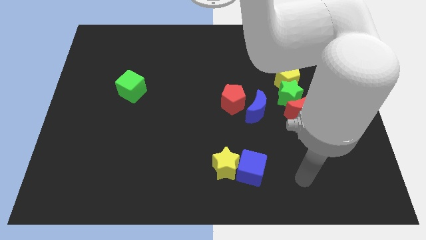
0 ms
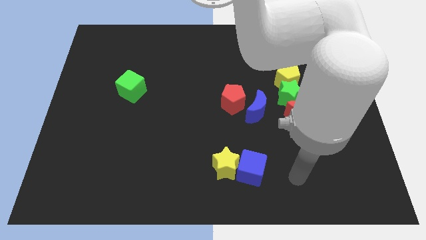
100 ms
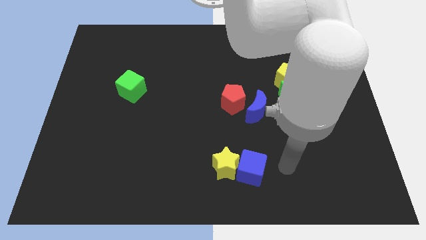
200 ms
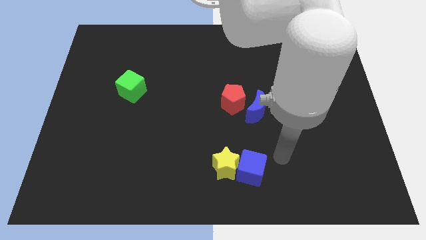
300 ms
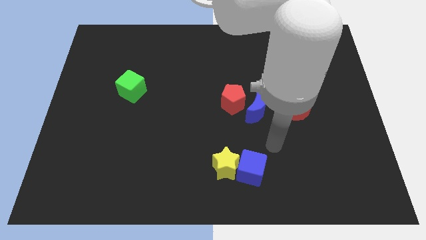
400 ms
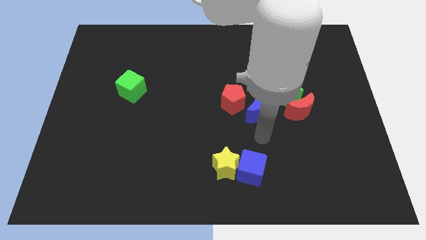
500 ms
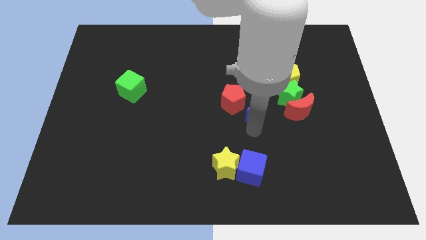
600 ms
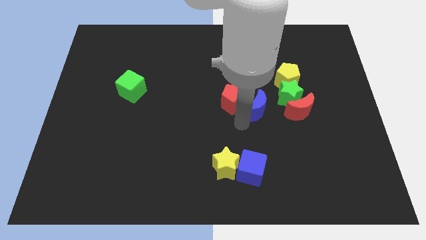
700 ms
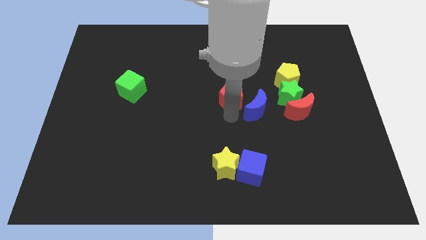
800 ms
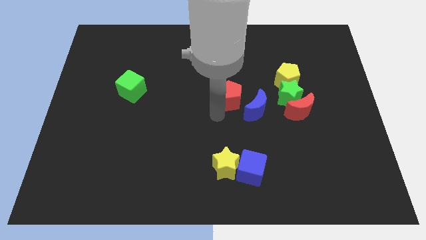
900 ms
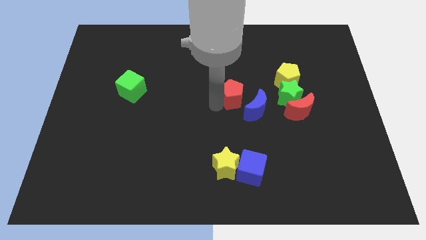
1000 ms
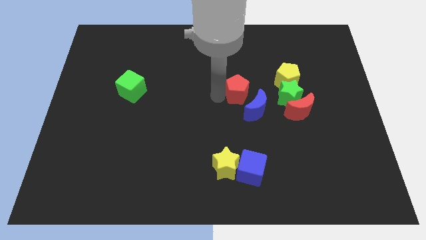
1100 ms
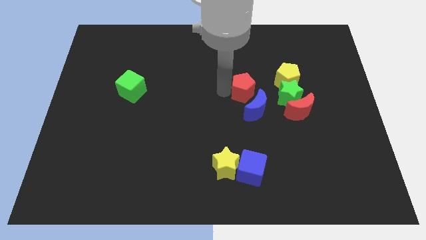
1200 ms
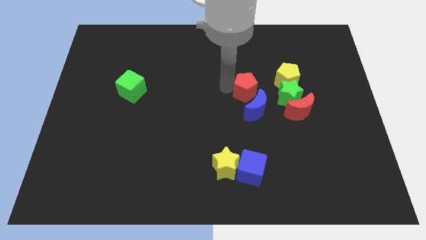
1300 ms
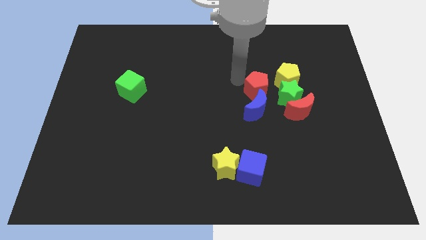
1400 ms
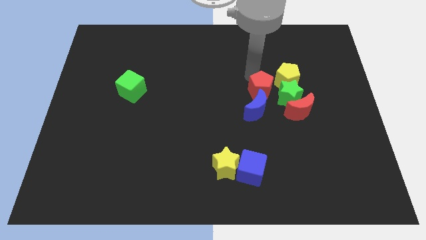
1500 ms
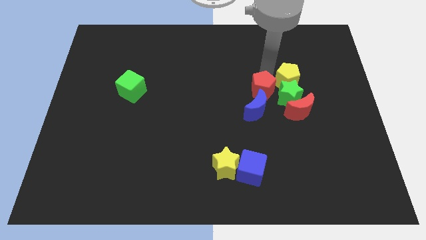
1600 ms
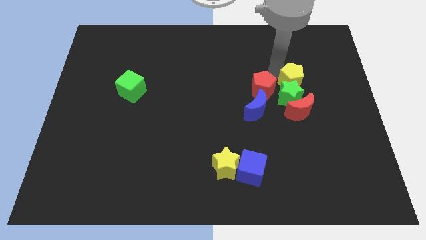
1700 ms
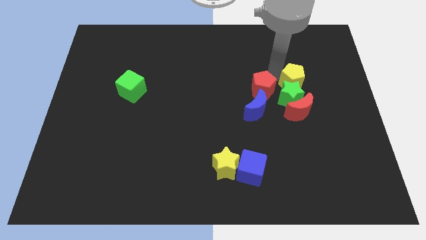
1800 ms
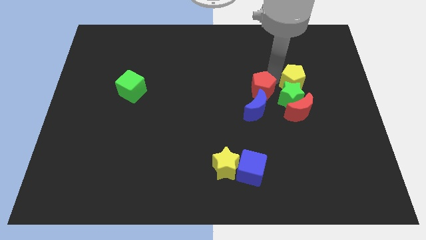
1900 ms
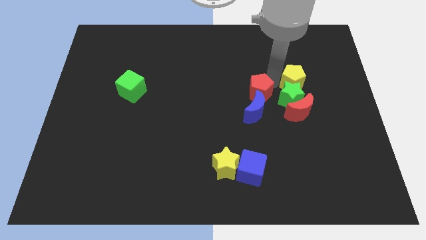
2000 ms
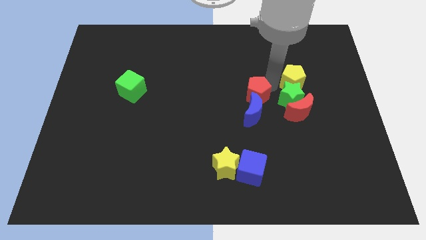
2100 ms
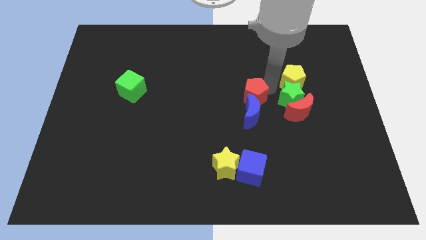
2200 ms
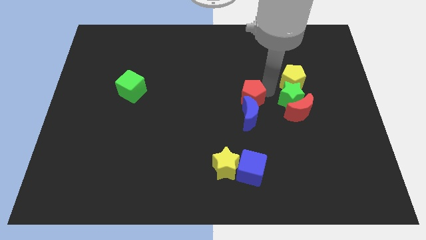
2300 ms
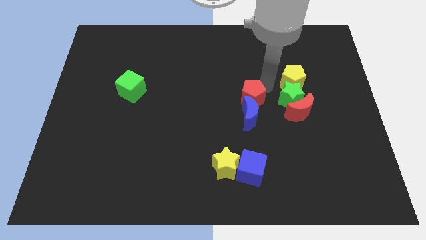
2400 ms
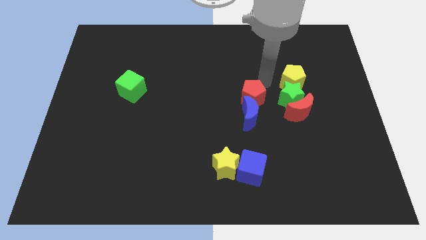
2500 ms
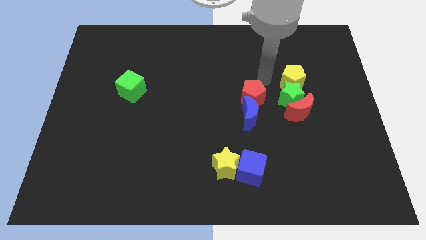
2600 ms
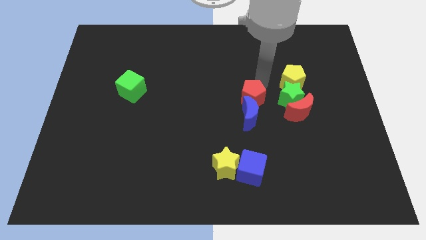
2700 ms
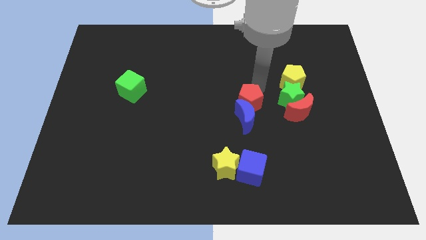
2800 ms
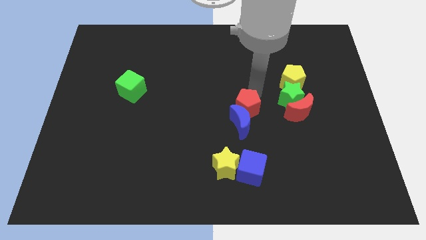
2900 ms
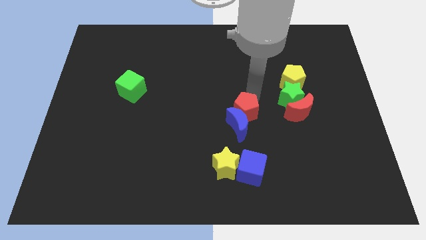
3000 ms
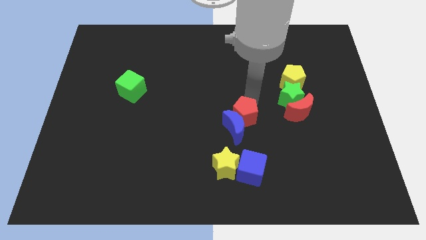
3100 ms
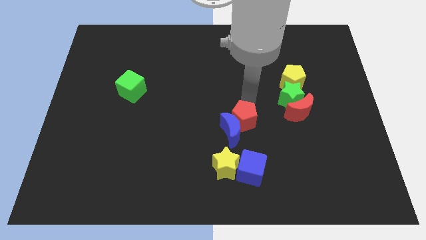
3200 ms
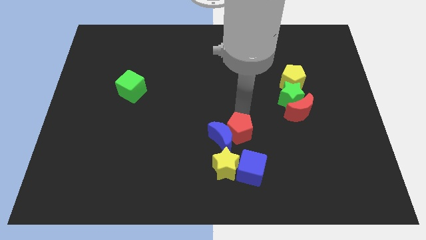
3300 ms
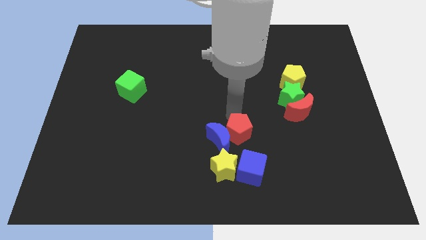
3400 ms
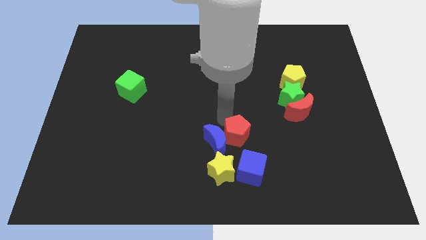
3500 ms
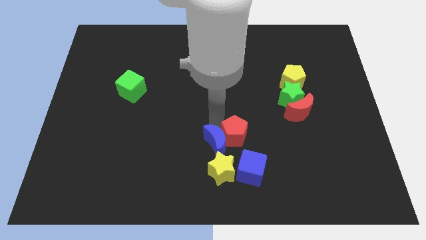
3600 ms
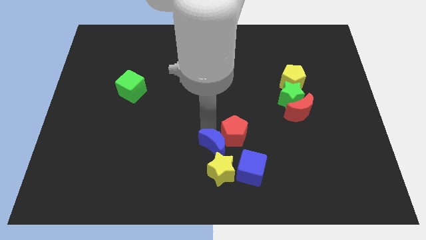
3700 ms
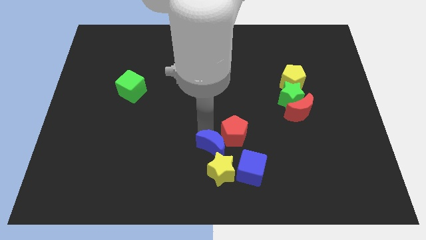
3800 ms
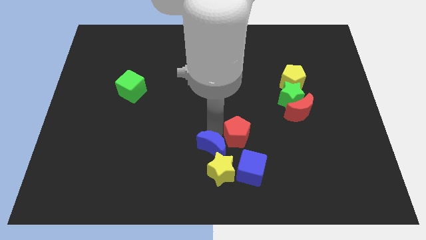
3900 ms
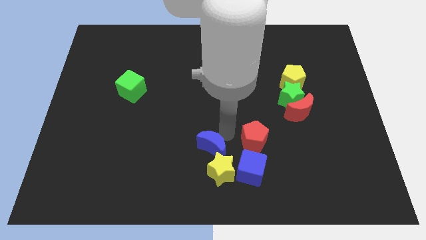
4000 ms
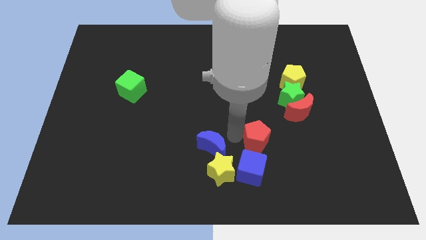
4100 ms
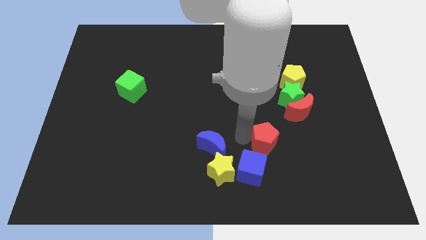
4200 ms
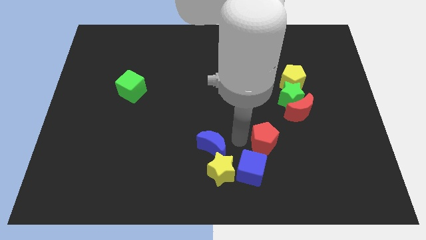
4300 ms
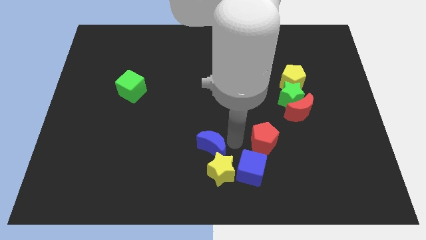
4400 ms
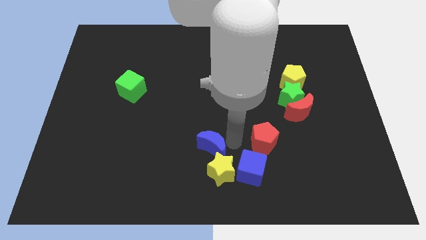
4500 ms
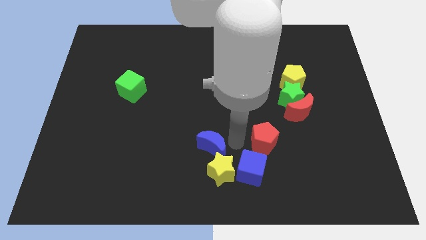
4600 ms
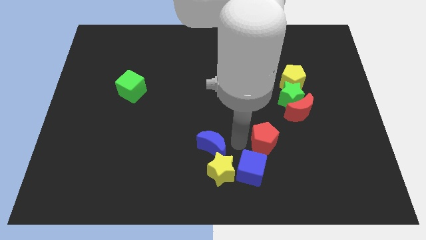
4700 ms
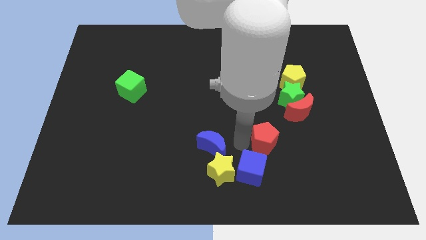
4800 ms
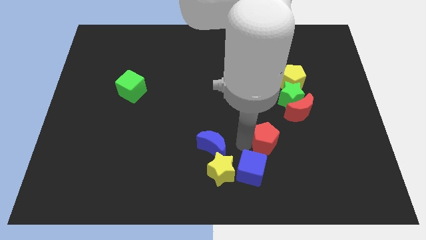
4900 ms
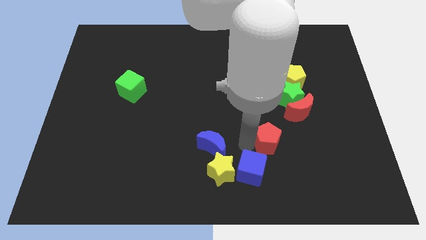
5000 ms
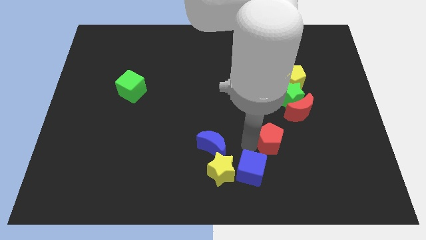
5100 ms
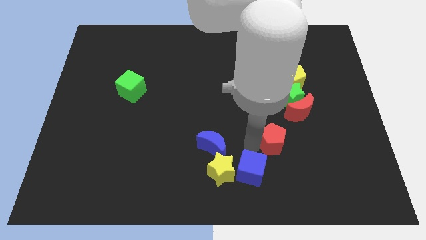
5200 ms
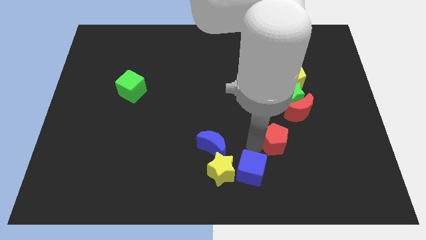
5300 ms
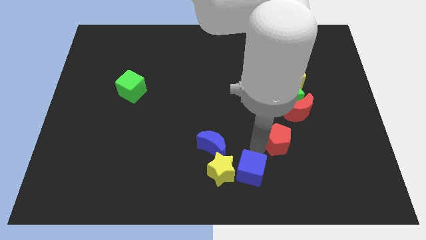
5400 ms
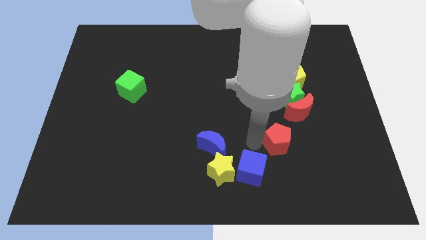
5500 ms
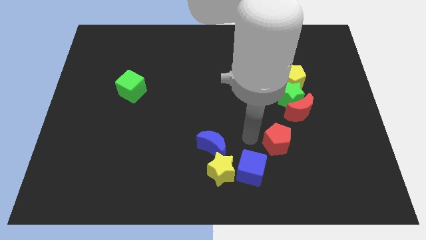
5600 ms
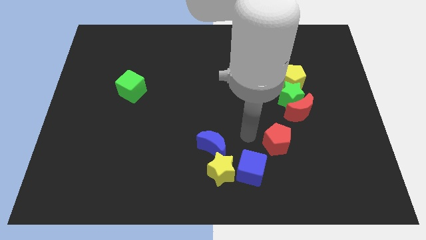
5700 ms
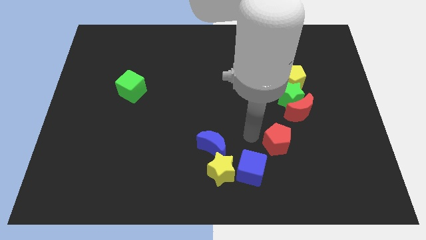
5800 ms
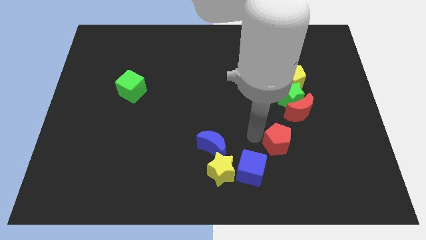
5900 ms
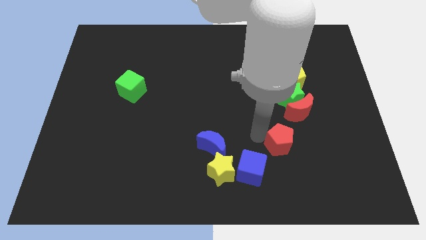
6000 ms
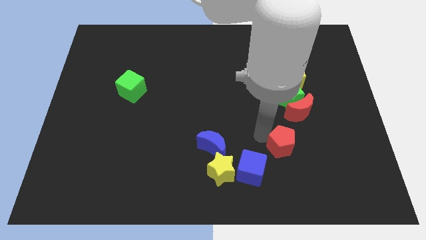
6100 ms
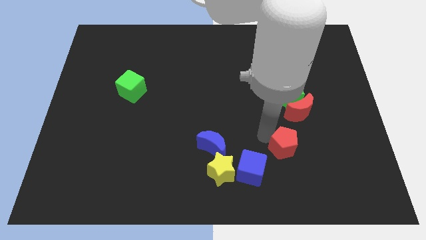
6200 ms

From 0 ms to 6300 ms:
push the red pentagon below the red moon

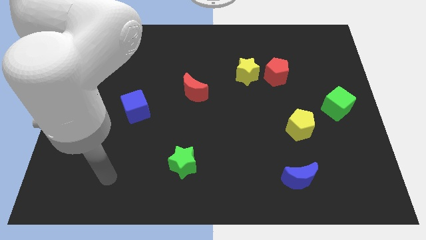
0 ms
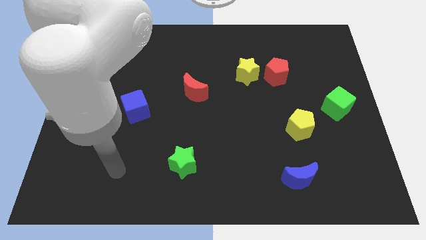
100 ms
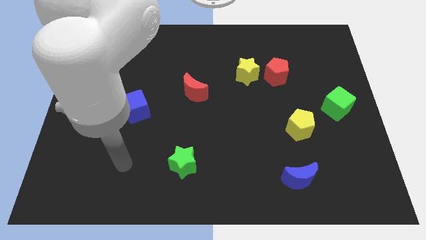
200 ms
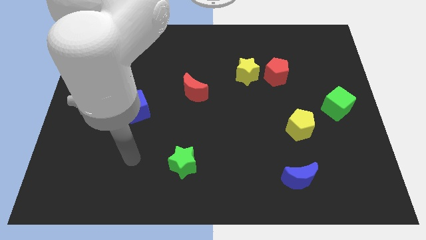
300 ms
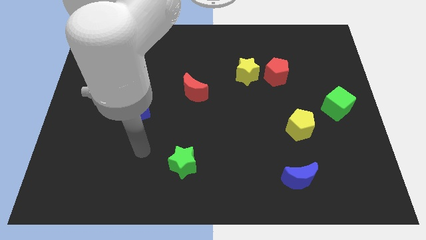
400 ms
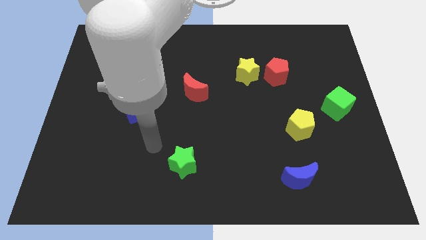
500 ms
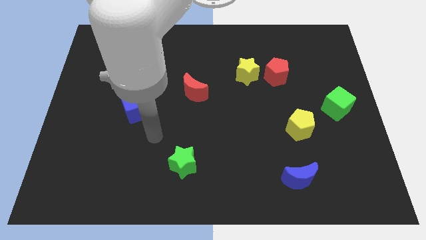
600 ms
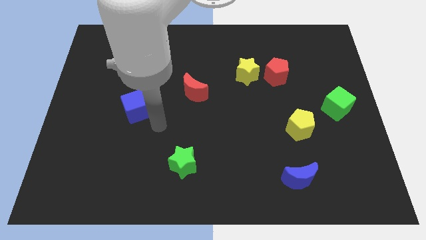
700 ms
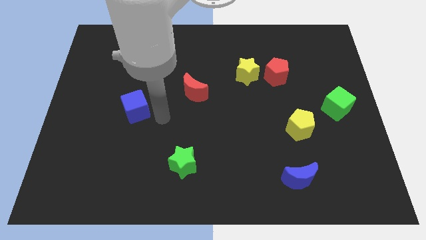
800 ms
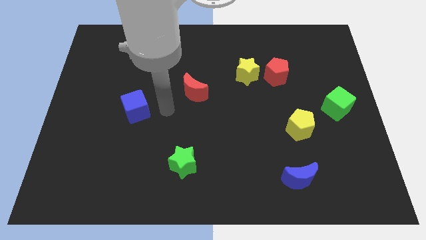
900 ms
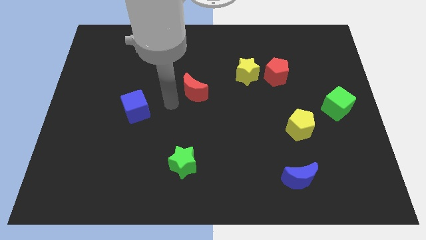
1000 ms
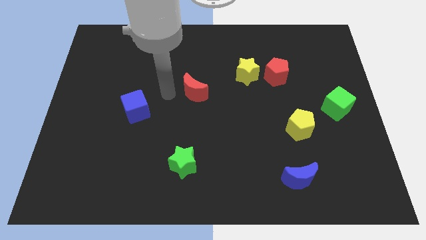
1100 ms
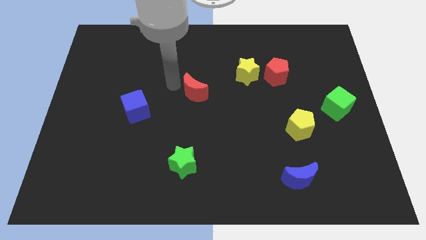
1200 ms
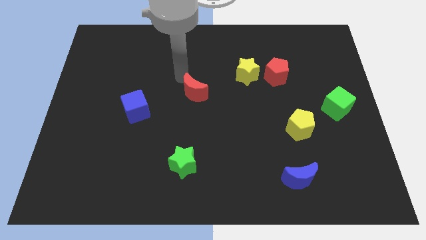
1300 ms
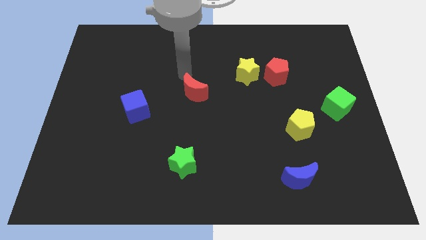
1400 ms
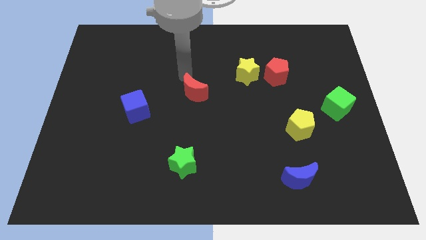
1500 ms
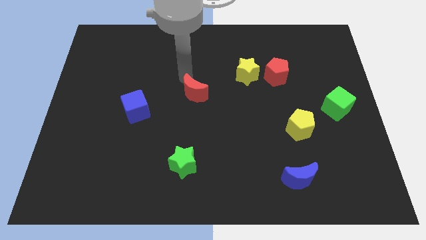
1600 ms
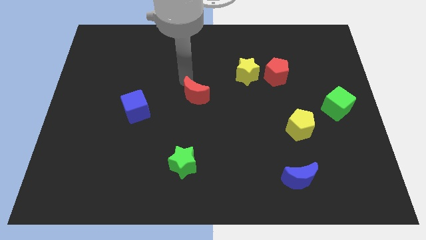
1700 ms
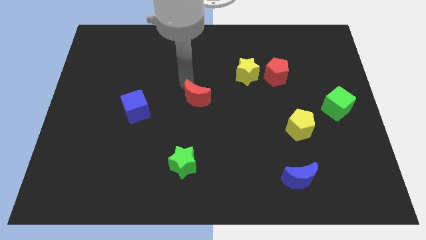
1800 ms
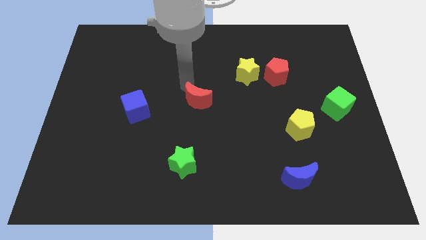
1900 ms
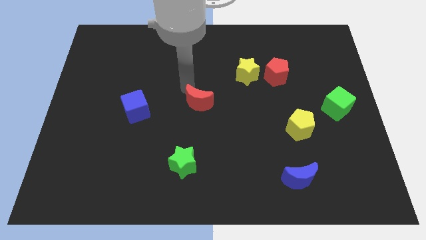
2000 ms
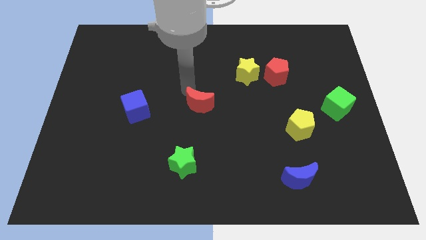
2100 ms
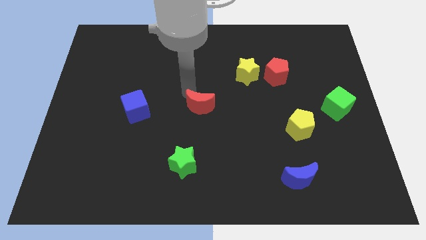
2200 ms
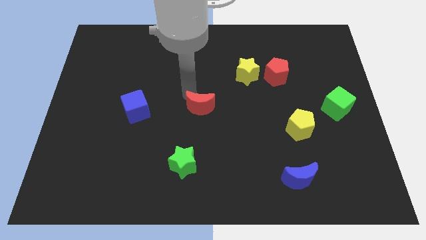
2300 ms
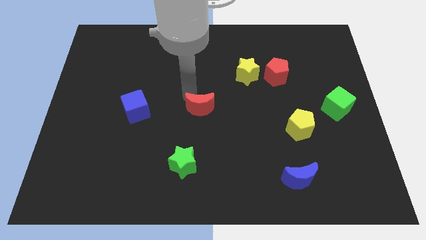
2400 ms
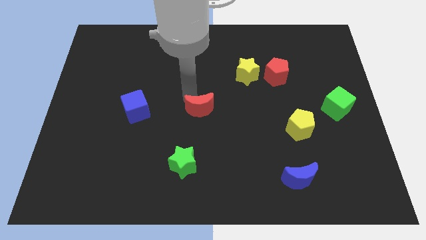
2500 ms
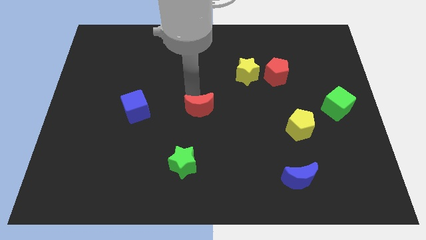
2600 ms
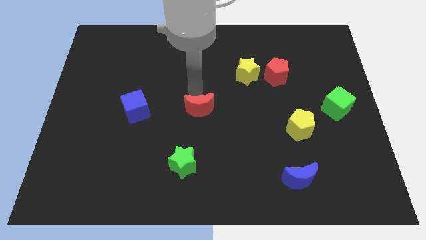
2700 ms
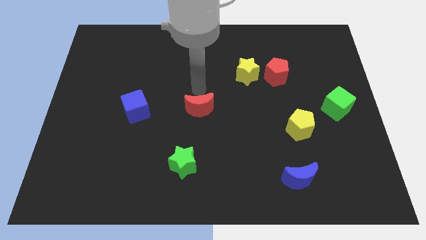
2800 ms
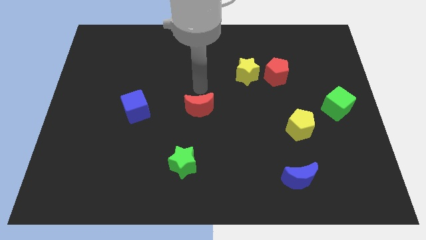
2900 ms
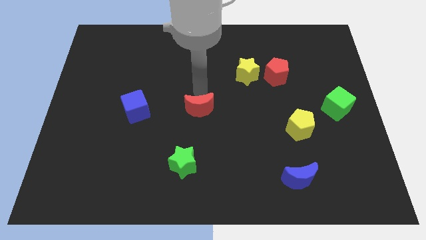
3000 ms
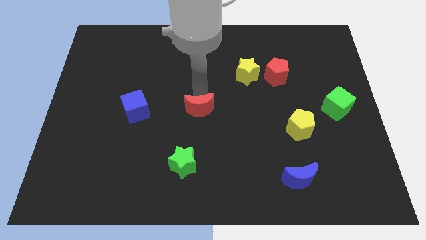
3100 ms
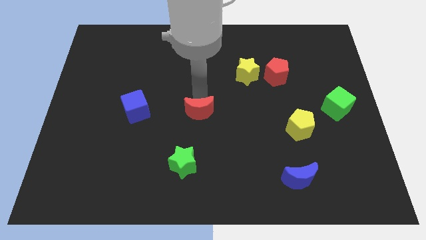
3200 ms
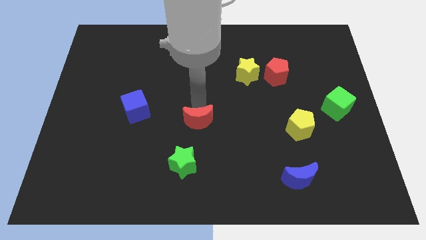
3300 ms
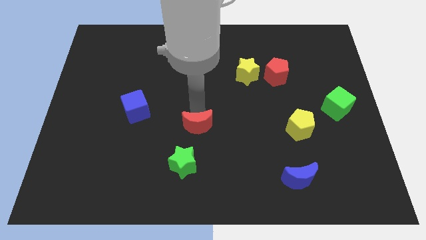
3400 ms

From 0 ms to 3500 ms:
push the red moon to the top right of the green star
